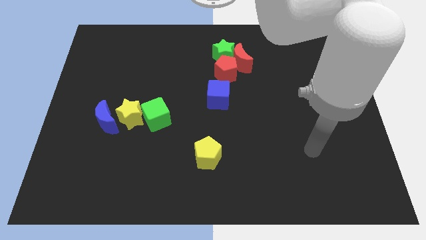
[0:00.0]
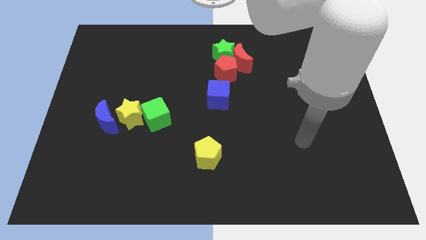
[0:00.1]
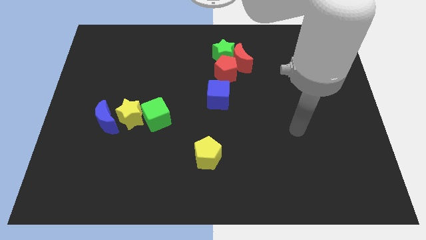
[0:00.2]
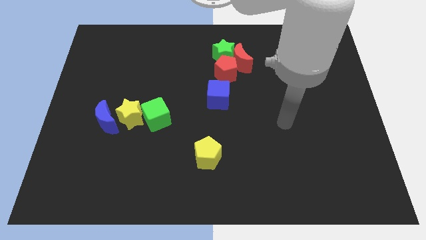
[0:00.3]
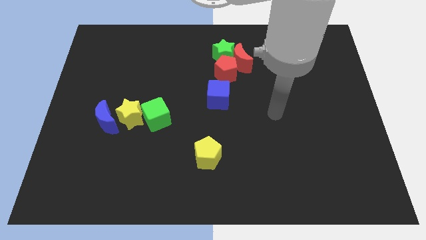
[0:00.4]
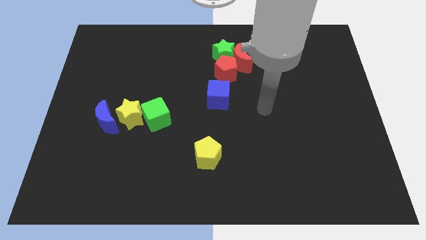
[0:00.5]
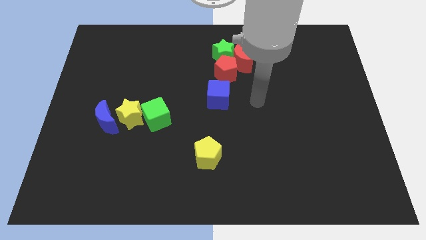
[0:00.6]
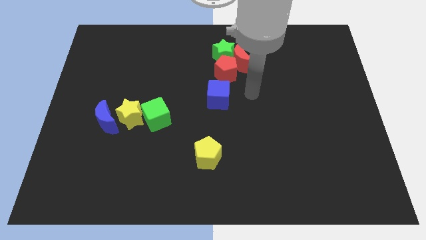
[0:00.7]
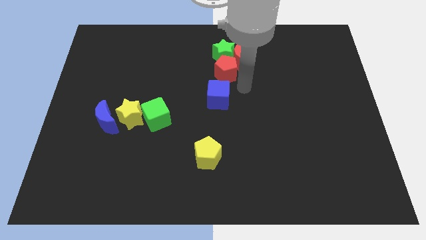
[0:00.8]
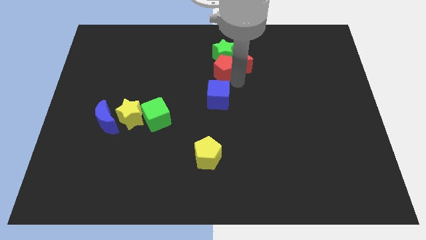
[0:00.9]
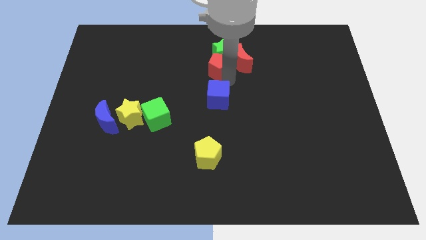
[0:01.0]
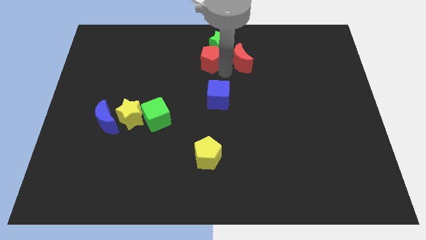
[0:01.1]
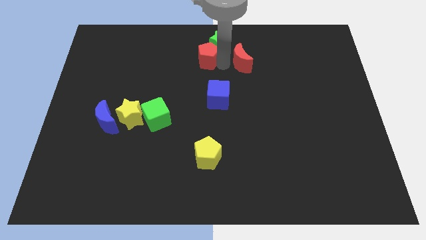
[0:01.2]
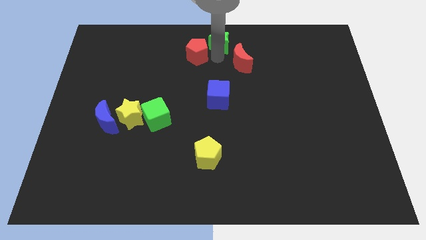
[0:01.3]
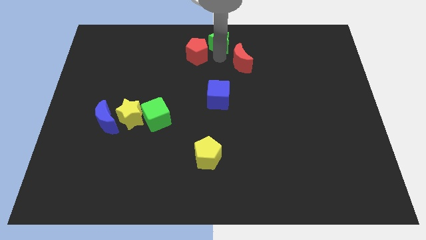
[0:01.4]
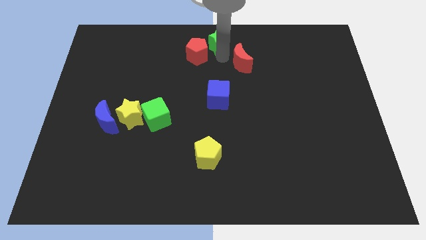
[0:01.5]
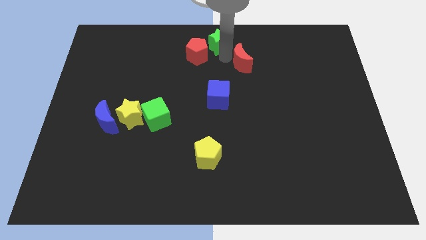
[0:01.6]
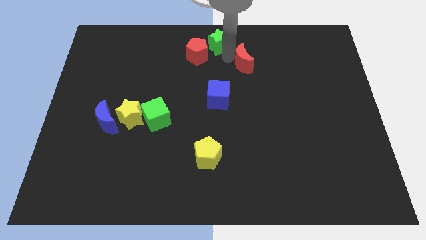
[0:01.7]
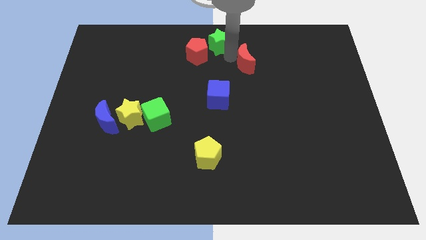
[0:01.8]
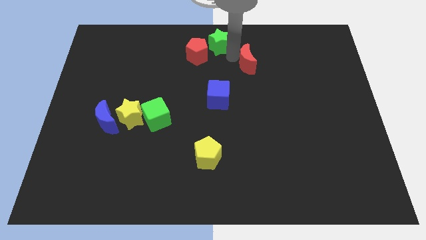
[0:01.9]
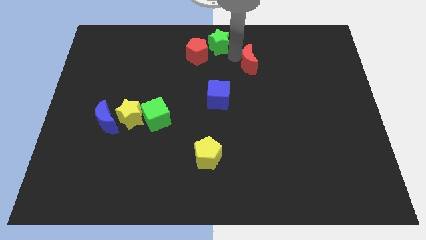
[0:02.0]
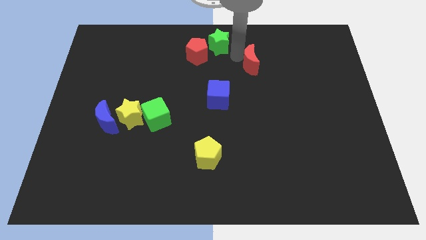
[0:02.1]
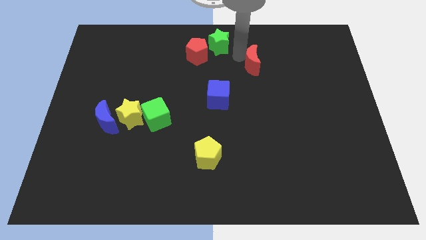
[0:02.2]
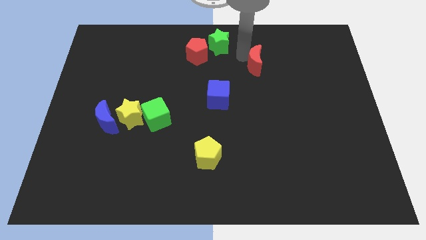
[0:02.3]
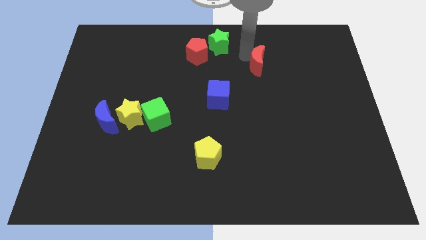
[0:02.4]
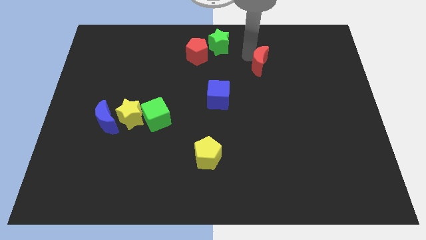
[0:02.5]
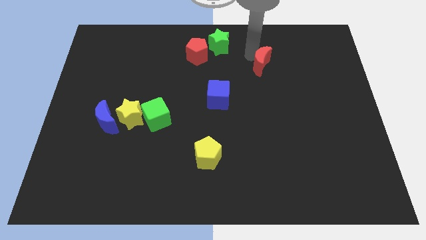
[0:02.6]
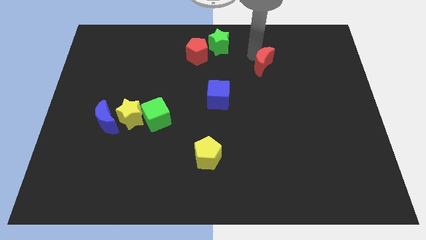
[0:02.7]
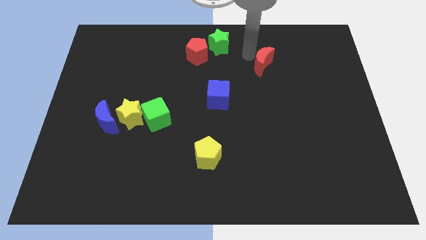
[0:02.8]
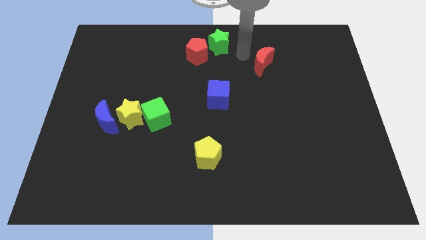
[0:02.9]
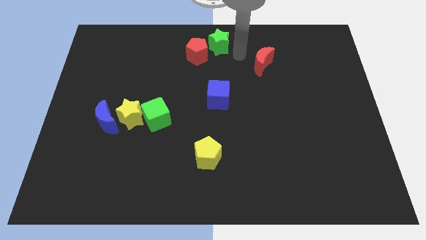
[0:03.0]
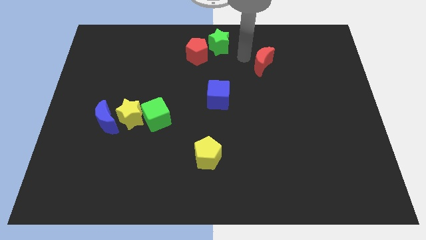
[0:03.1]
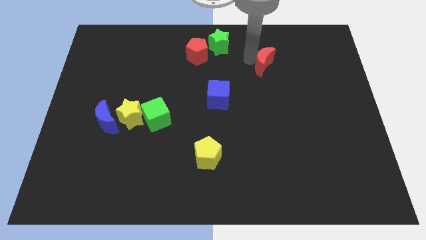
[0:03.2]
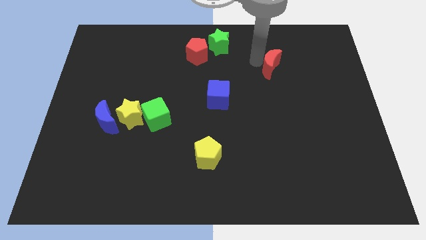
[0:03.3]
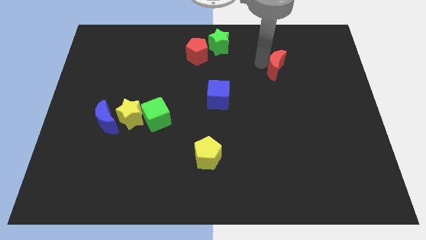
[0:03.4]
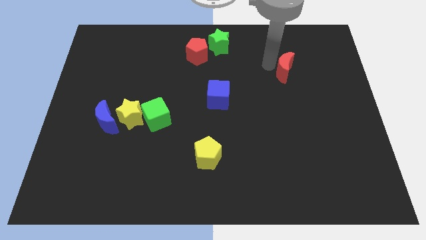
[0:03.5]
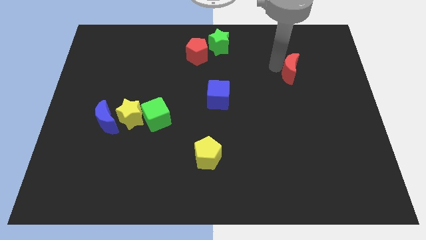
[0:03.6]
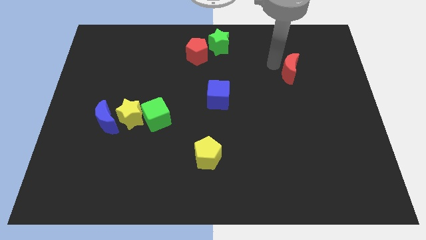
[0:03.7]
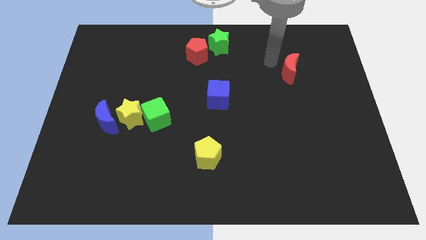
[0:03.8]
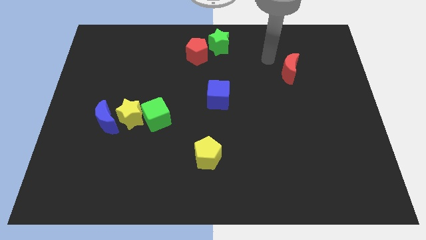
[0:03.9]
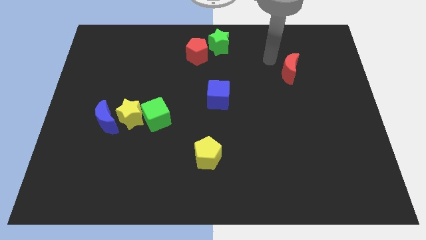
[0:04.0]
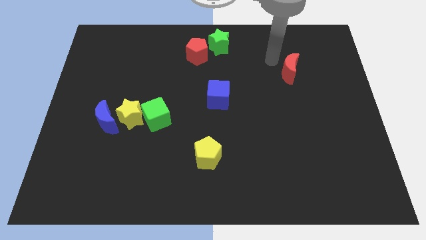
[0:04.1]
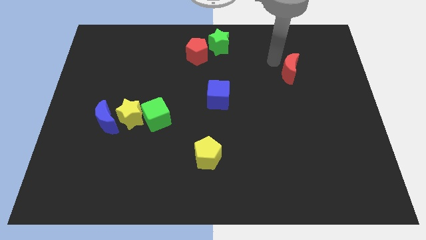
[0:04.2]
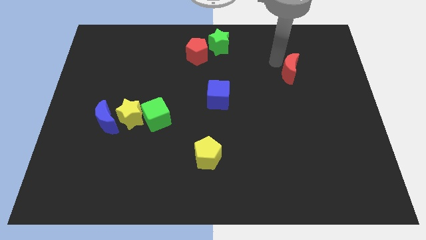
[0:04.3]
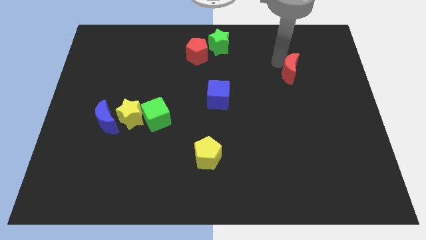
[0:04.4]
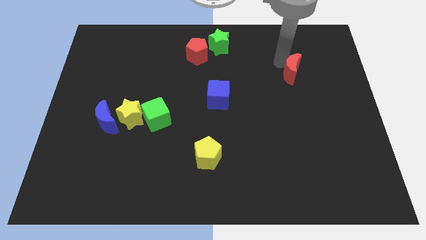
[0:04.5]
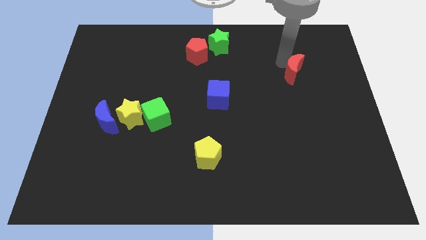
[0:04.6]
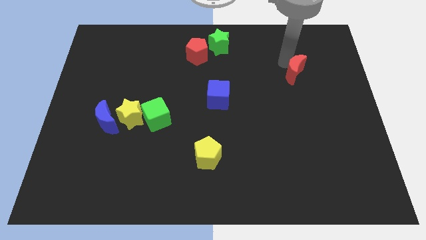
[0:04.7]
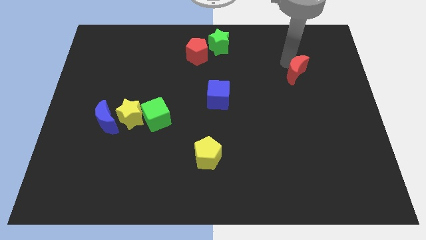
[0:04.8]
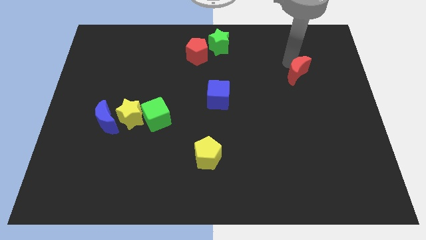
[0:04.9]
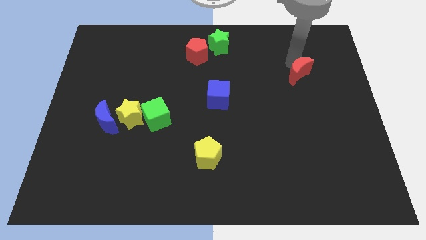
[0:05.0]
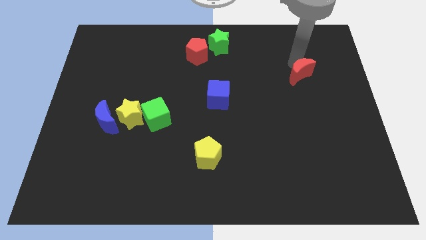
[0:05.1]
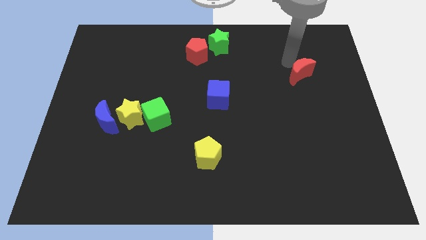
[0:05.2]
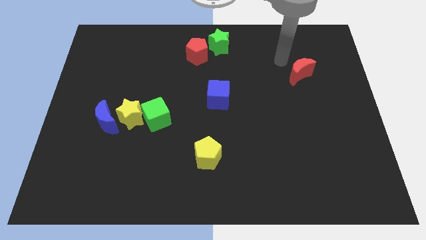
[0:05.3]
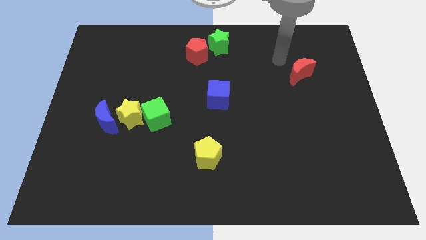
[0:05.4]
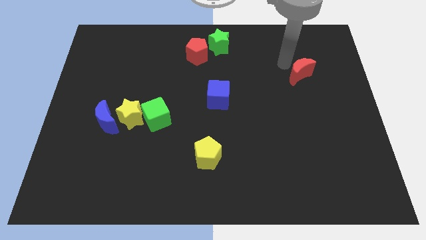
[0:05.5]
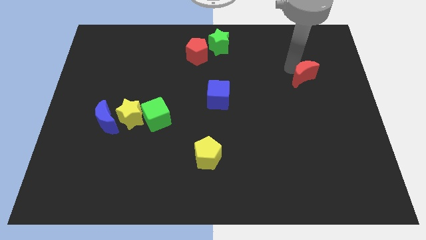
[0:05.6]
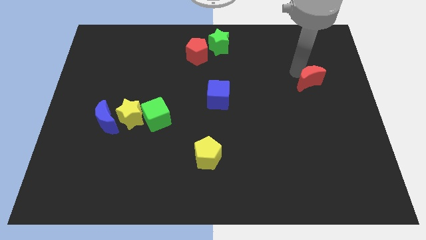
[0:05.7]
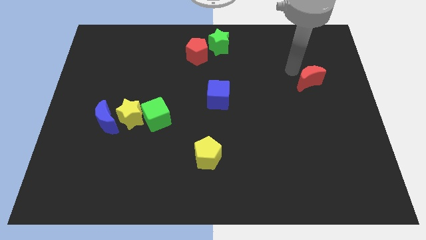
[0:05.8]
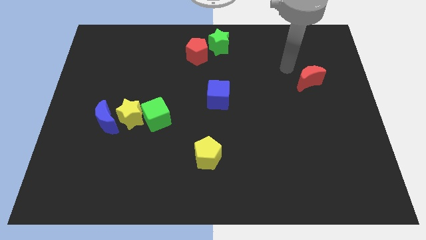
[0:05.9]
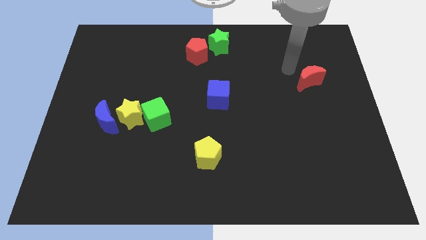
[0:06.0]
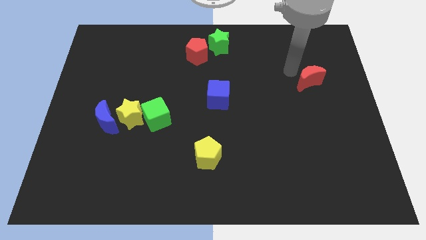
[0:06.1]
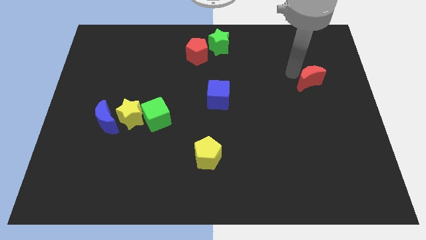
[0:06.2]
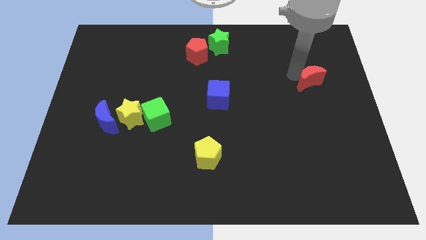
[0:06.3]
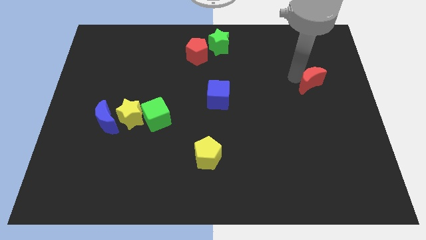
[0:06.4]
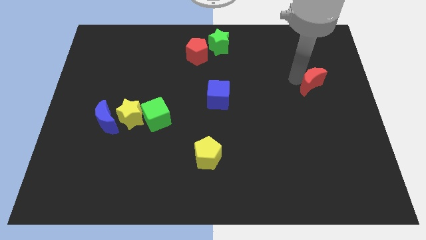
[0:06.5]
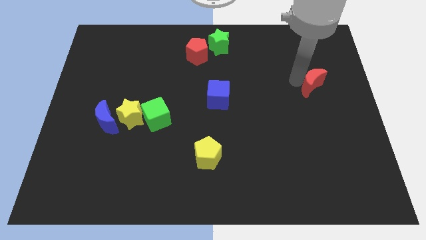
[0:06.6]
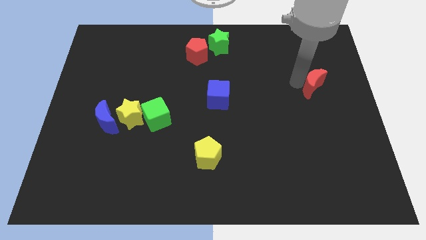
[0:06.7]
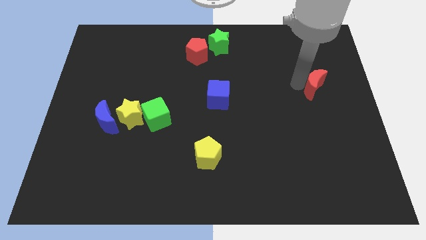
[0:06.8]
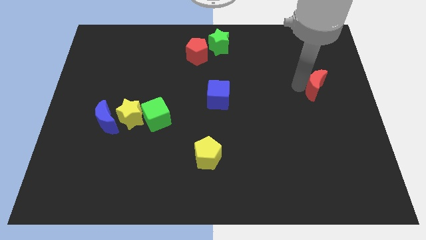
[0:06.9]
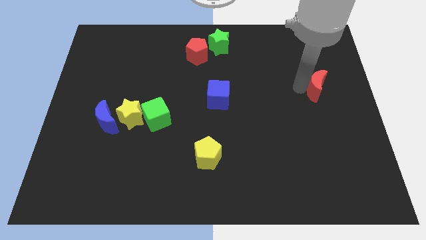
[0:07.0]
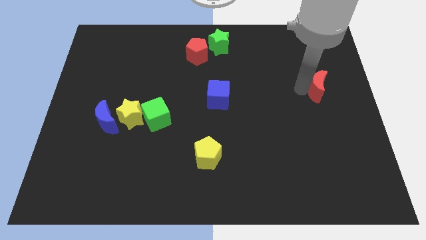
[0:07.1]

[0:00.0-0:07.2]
push the red moon to the right side
